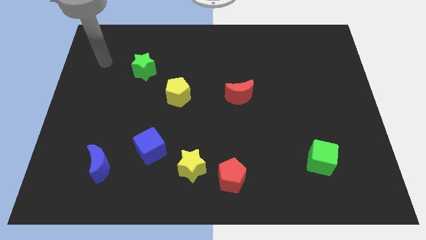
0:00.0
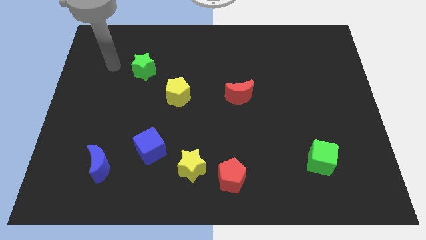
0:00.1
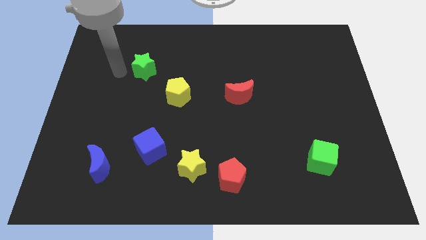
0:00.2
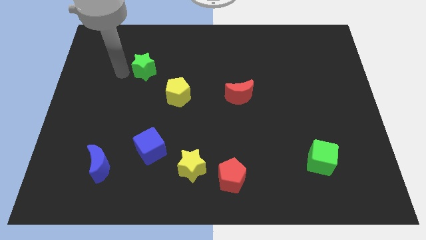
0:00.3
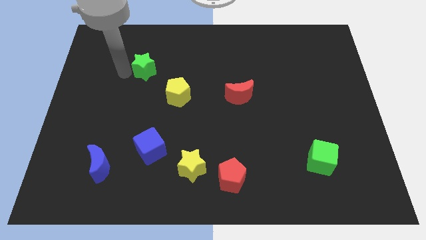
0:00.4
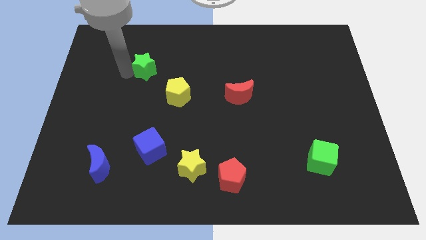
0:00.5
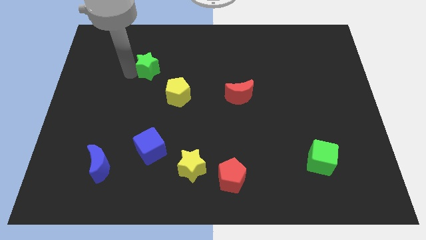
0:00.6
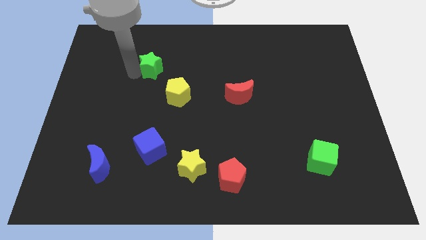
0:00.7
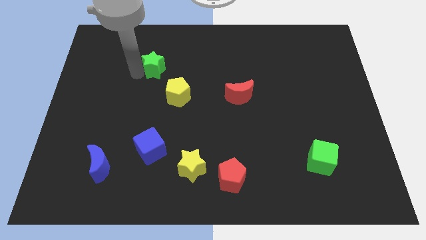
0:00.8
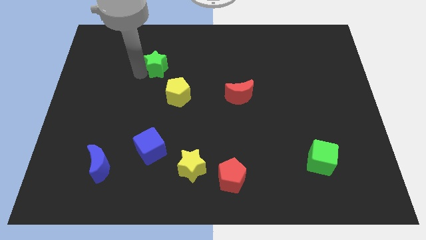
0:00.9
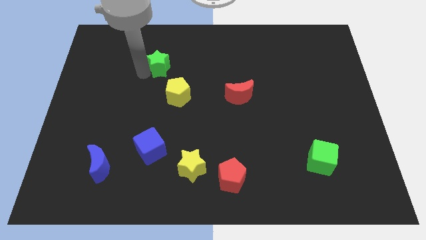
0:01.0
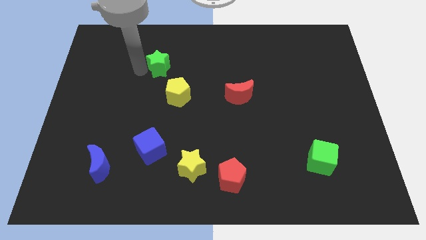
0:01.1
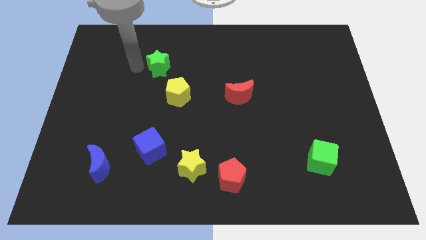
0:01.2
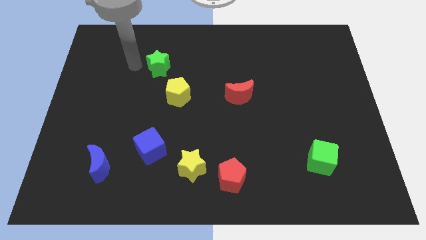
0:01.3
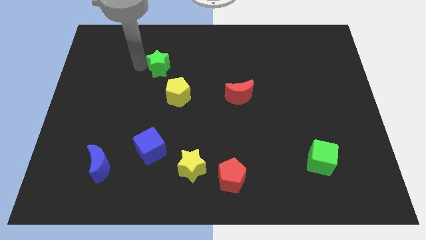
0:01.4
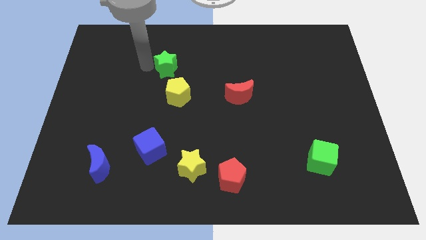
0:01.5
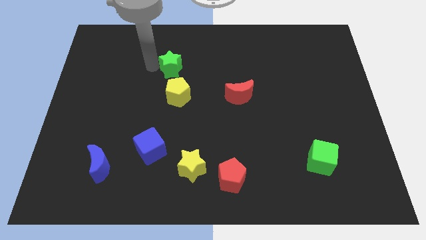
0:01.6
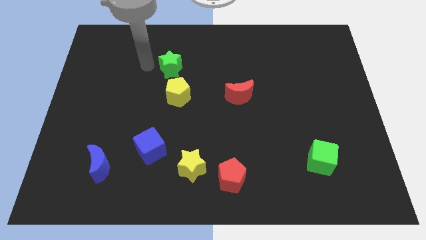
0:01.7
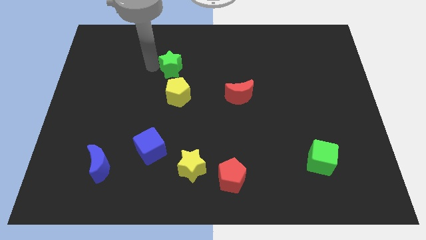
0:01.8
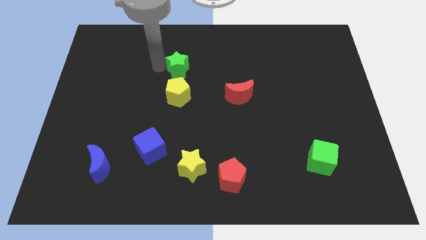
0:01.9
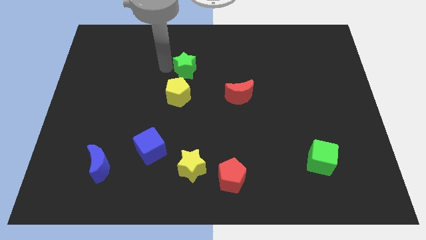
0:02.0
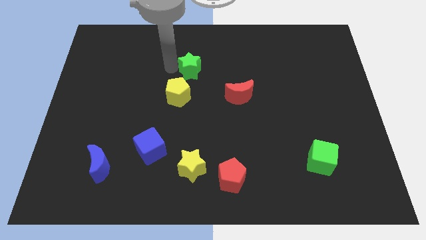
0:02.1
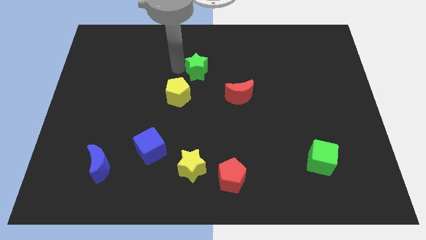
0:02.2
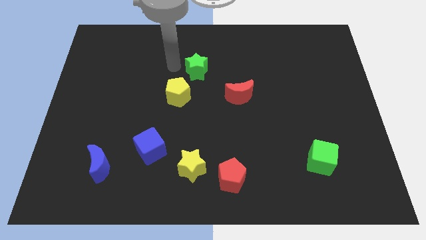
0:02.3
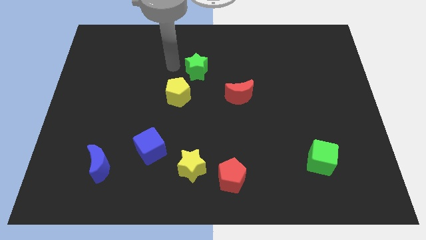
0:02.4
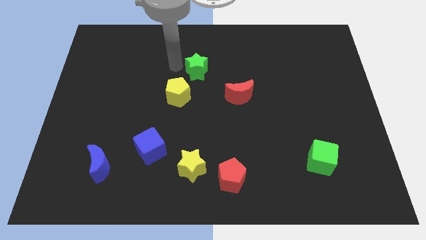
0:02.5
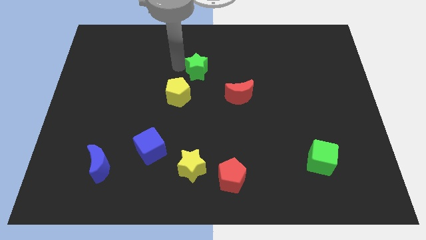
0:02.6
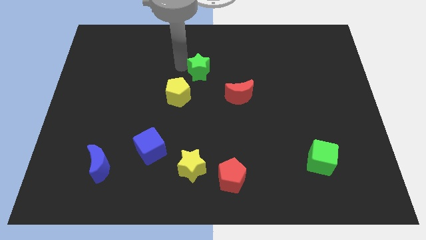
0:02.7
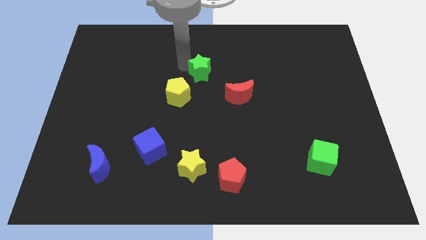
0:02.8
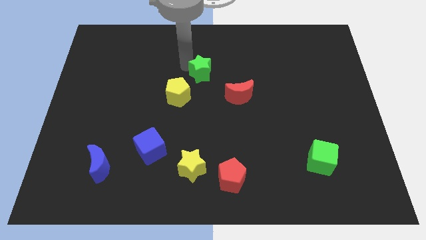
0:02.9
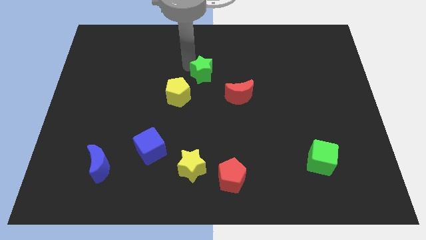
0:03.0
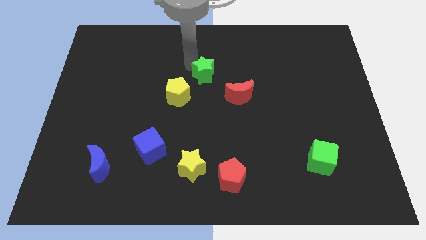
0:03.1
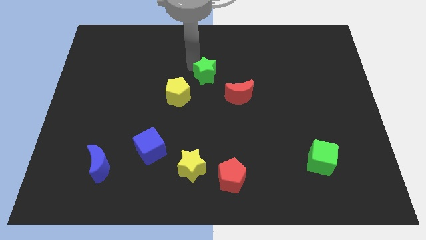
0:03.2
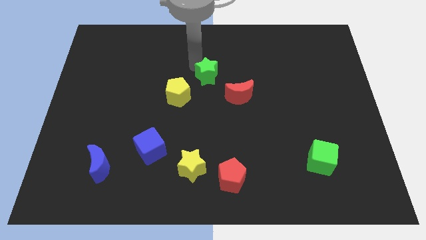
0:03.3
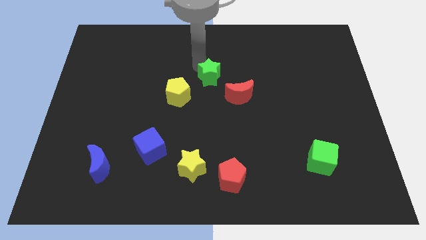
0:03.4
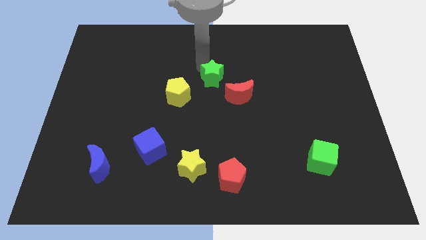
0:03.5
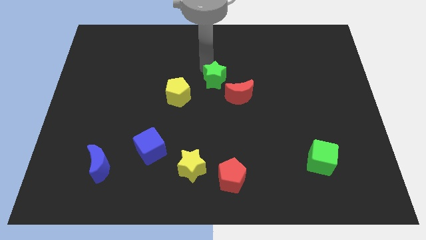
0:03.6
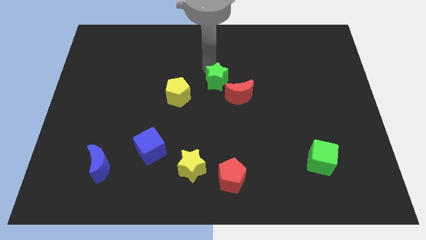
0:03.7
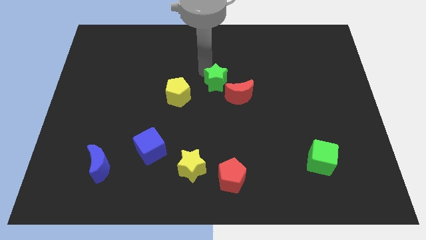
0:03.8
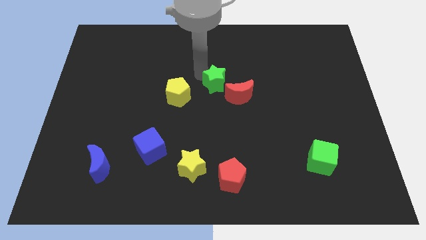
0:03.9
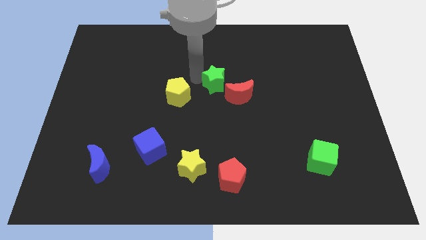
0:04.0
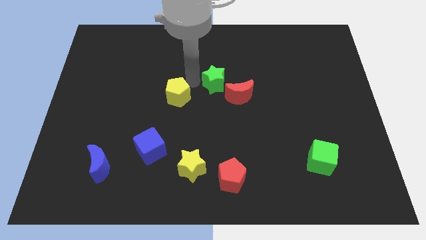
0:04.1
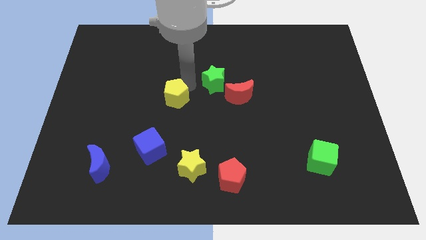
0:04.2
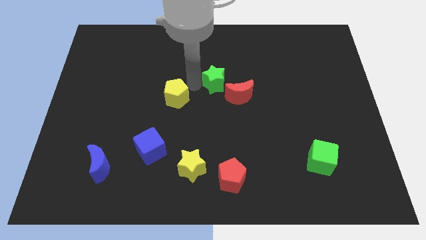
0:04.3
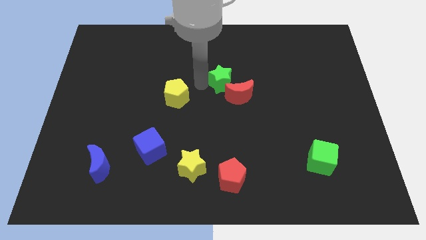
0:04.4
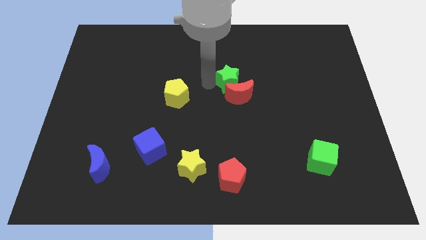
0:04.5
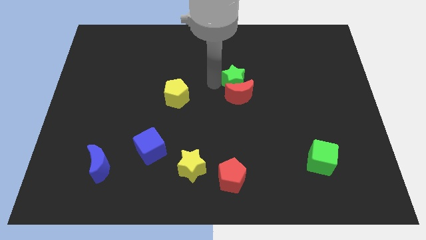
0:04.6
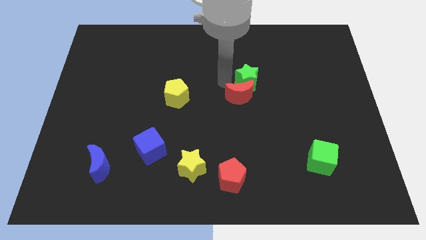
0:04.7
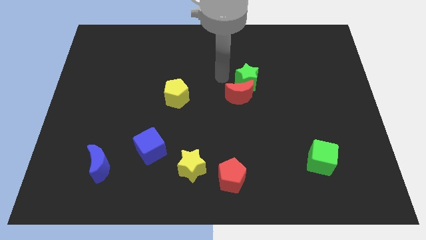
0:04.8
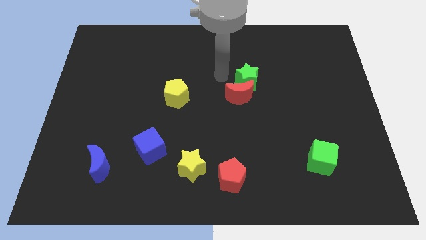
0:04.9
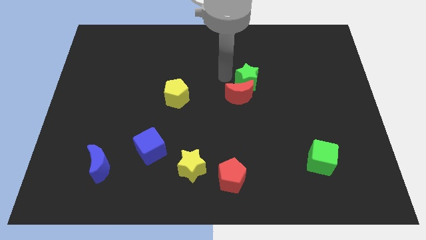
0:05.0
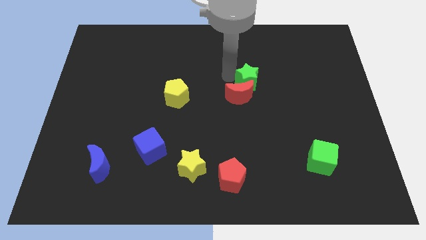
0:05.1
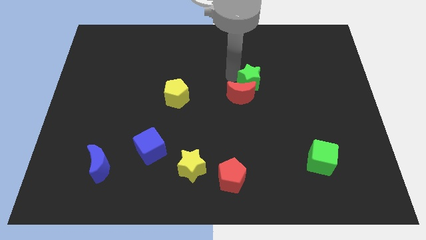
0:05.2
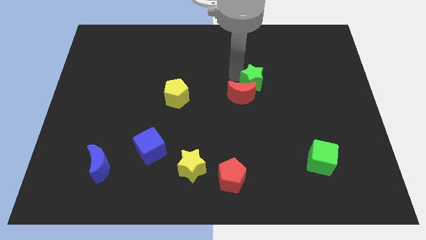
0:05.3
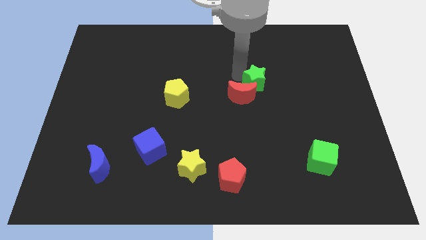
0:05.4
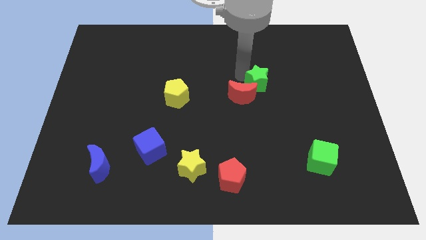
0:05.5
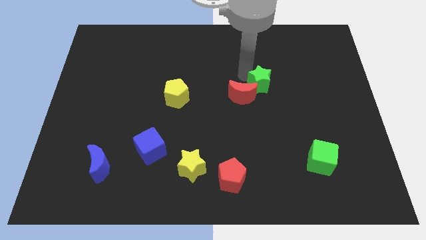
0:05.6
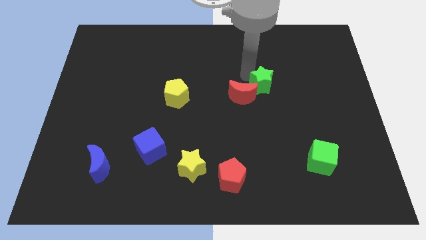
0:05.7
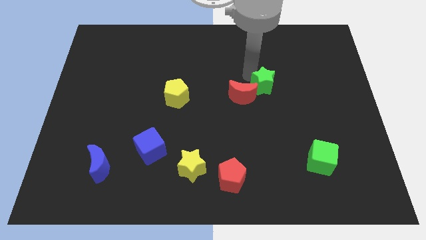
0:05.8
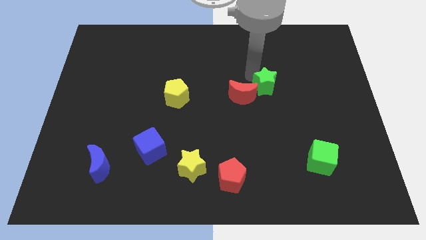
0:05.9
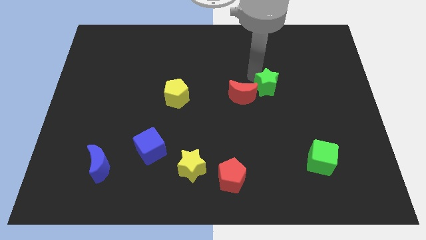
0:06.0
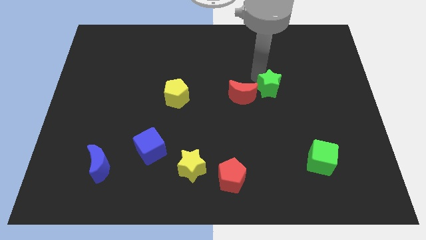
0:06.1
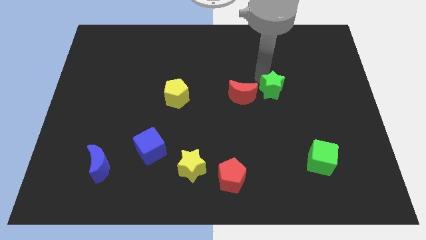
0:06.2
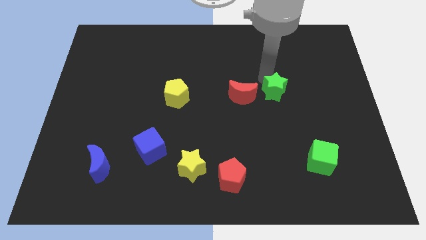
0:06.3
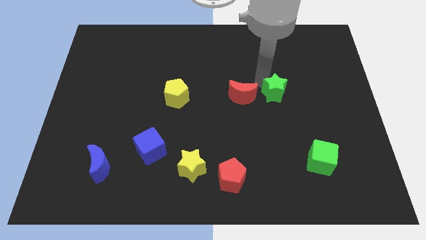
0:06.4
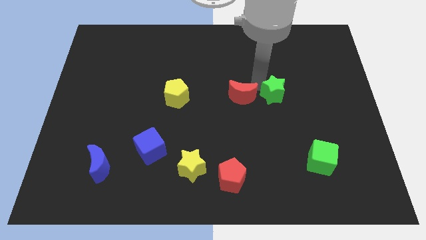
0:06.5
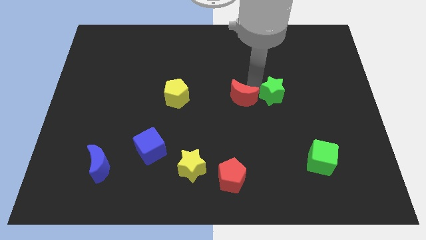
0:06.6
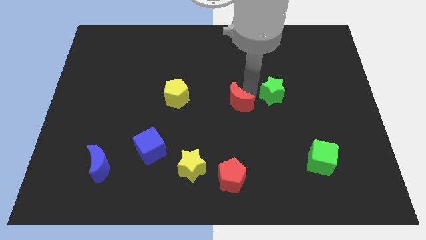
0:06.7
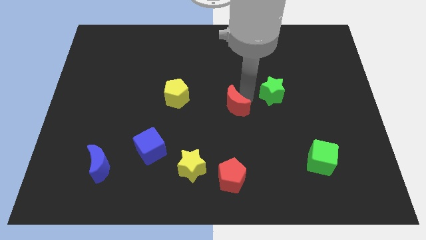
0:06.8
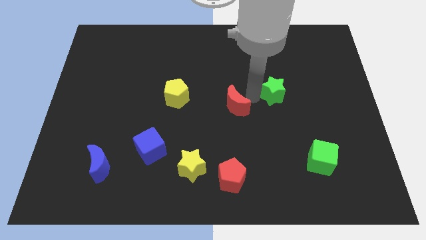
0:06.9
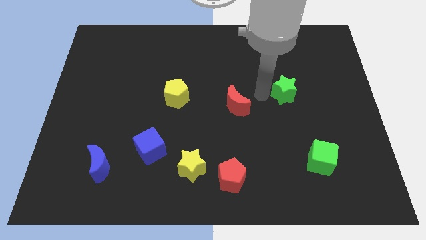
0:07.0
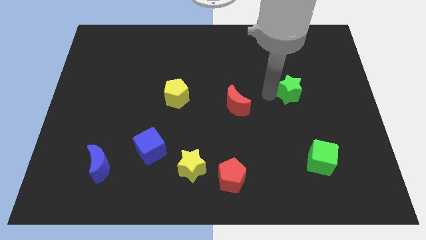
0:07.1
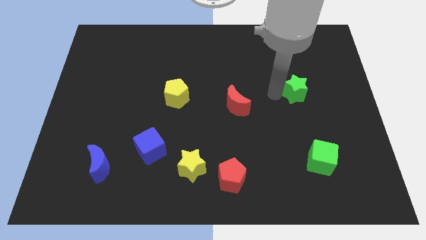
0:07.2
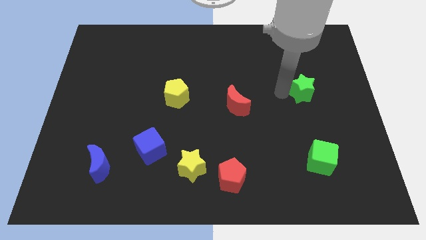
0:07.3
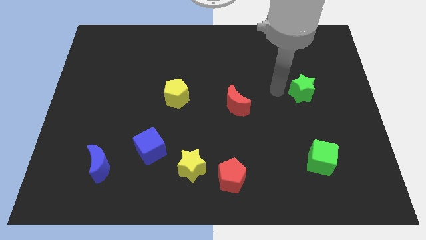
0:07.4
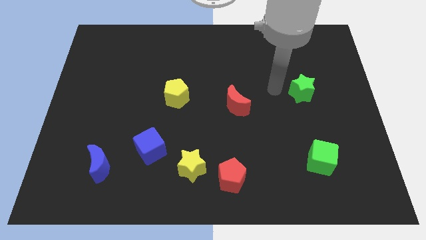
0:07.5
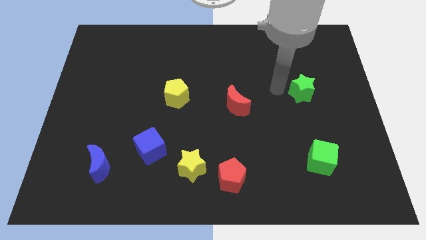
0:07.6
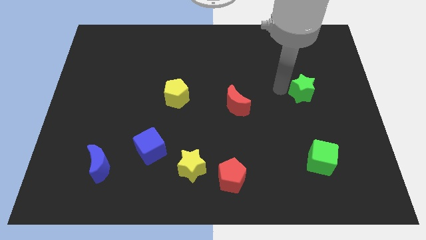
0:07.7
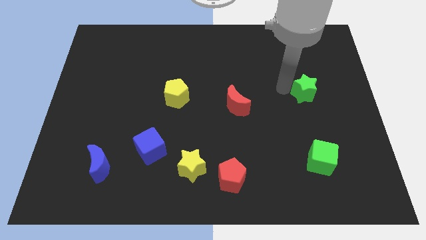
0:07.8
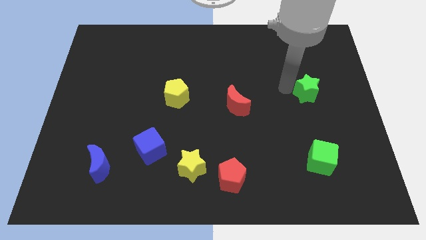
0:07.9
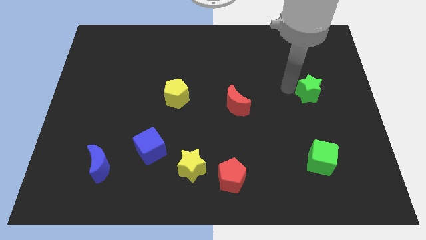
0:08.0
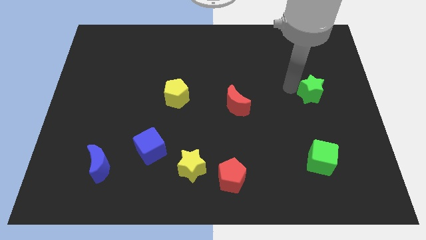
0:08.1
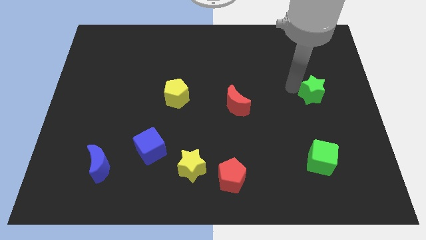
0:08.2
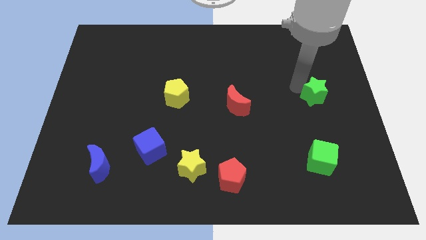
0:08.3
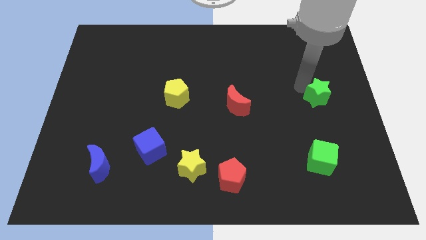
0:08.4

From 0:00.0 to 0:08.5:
move the green star to the center right
